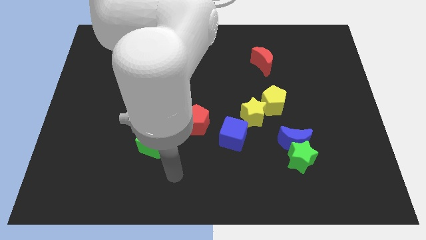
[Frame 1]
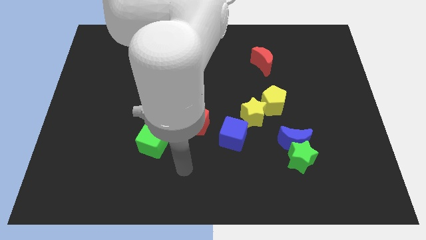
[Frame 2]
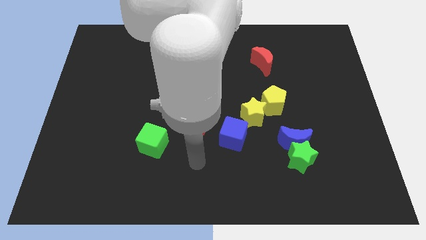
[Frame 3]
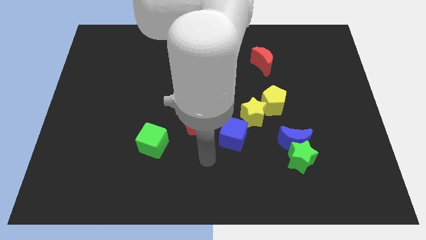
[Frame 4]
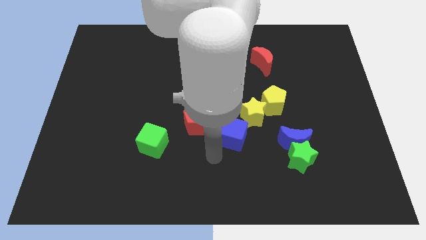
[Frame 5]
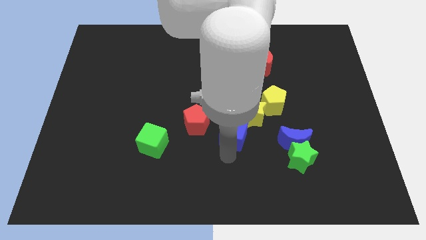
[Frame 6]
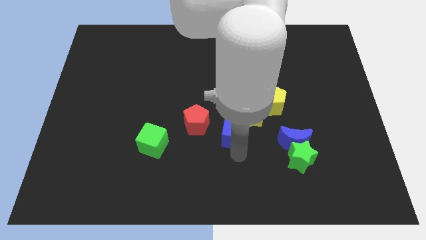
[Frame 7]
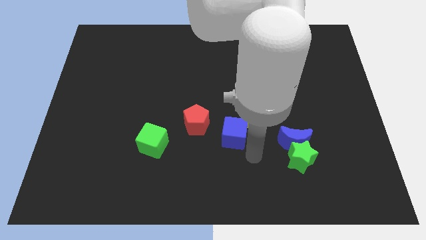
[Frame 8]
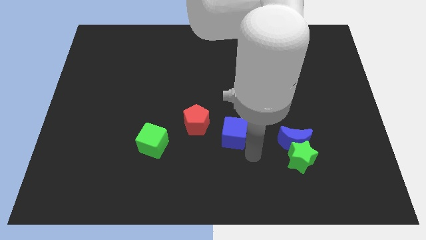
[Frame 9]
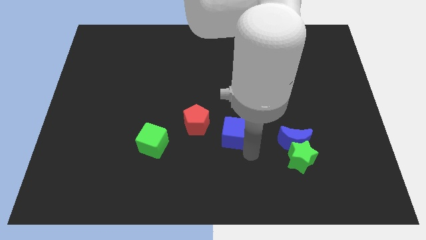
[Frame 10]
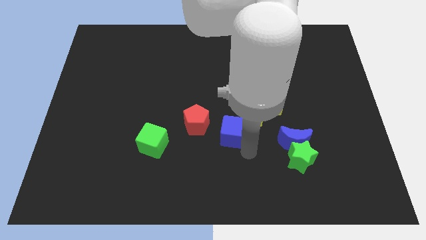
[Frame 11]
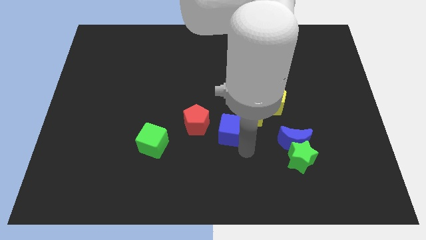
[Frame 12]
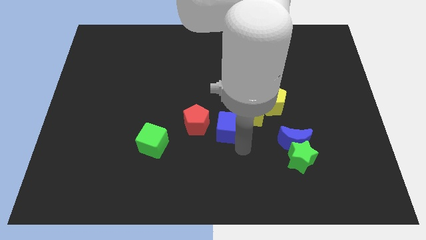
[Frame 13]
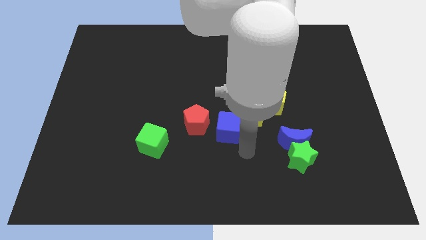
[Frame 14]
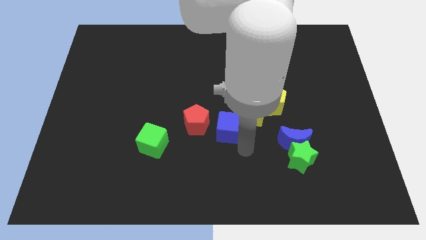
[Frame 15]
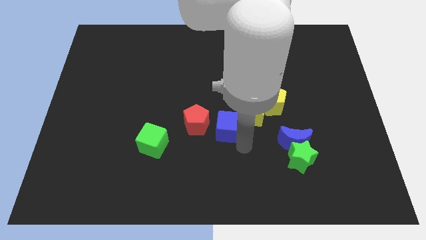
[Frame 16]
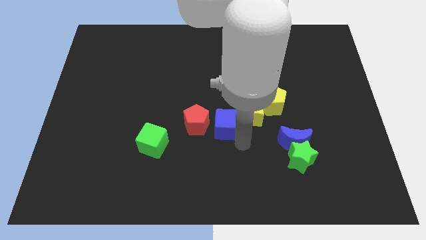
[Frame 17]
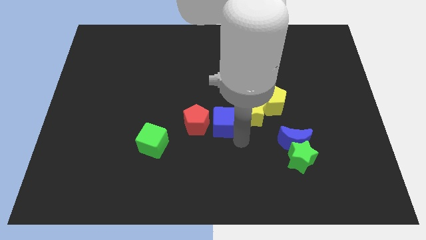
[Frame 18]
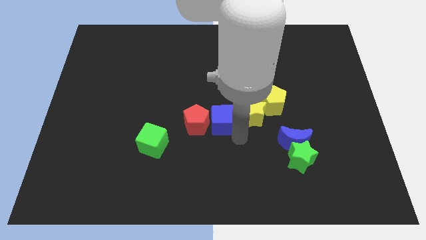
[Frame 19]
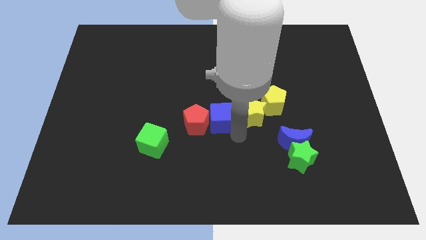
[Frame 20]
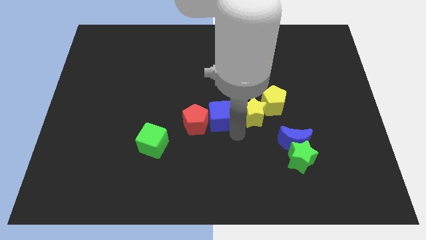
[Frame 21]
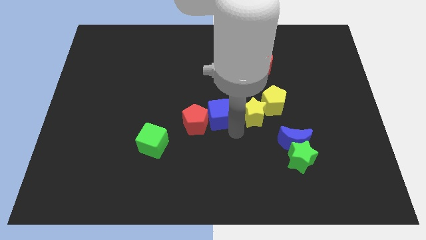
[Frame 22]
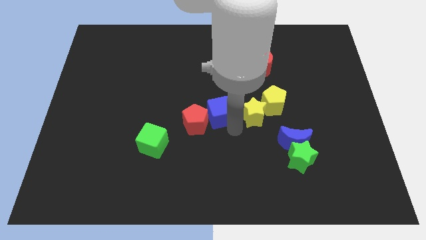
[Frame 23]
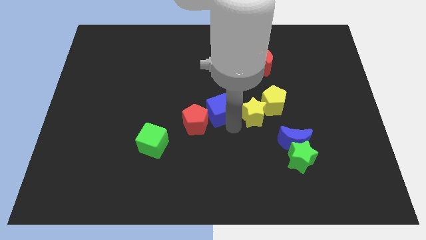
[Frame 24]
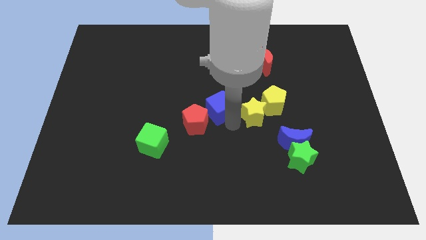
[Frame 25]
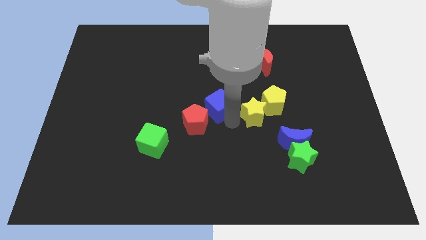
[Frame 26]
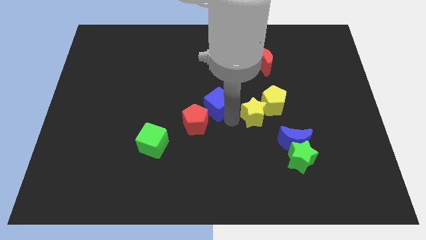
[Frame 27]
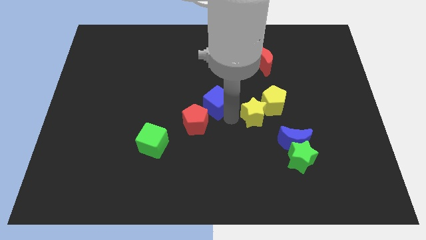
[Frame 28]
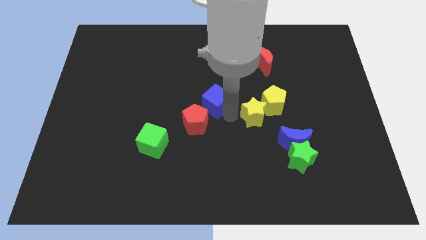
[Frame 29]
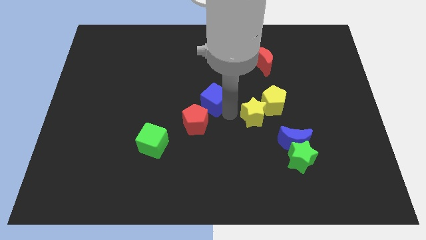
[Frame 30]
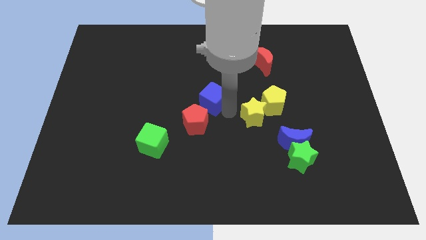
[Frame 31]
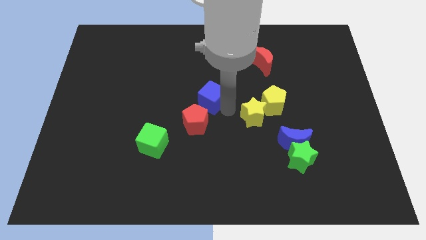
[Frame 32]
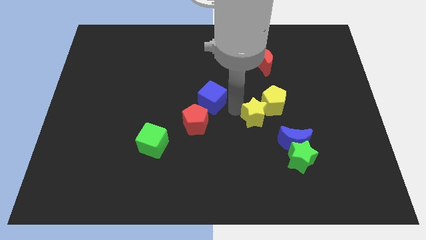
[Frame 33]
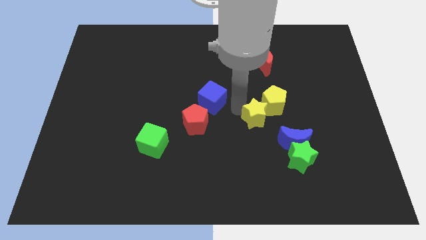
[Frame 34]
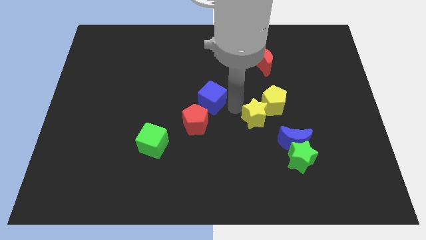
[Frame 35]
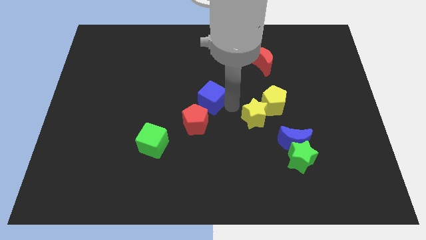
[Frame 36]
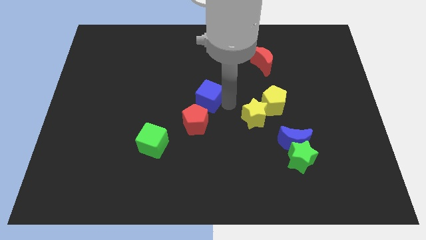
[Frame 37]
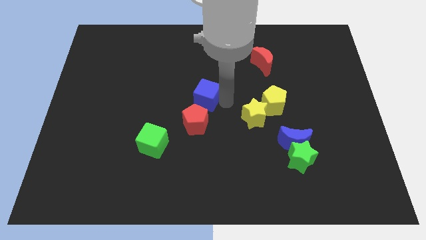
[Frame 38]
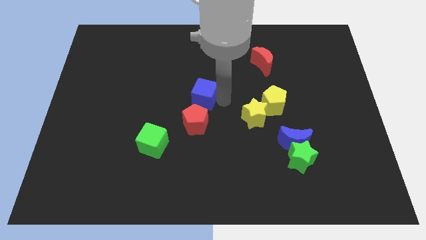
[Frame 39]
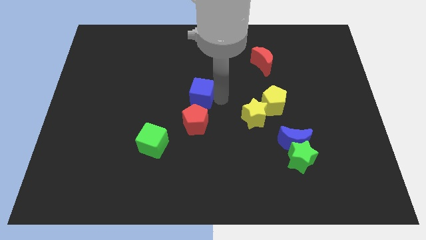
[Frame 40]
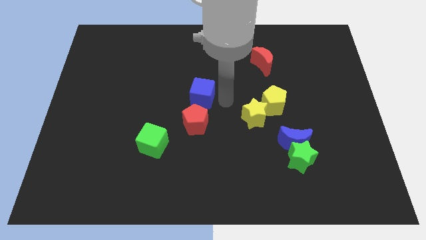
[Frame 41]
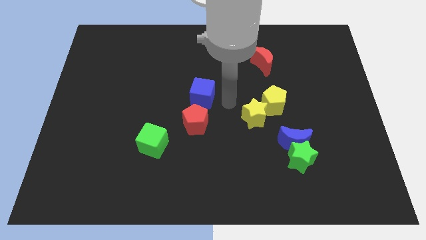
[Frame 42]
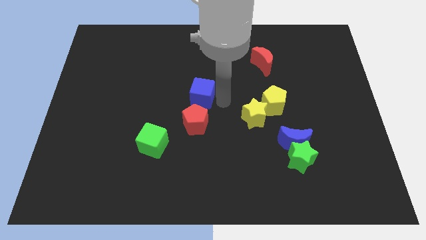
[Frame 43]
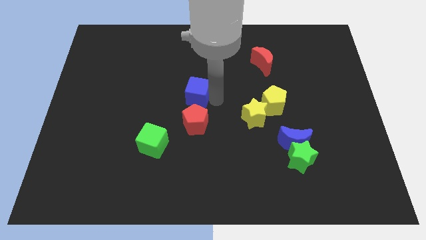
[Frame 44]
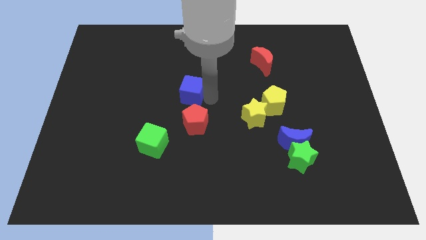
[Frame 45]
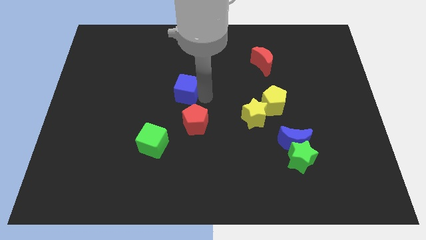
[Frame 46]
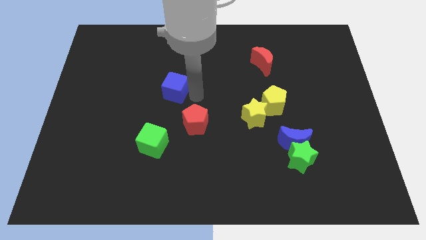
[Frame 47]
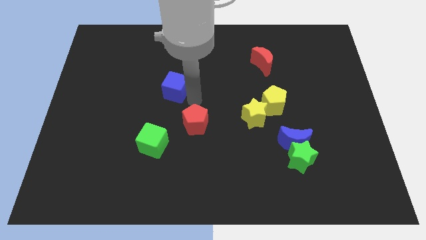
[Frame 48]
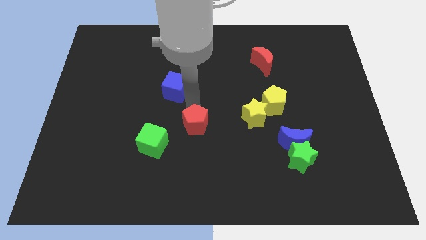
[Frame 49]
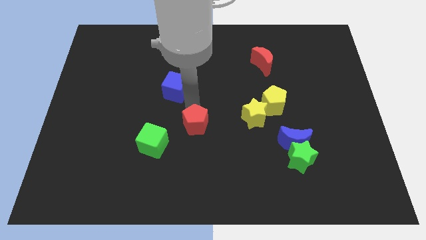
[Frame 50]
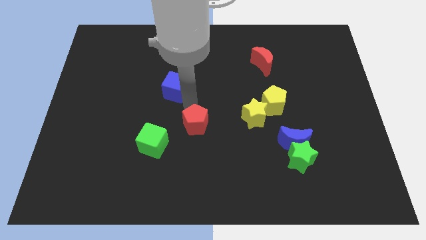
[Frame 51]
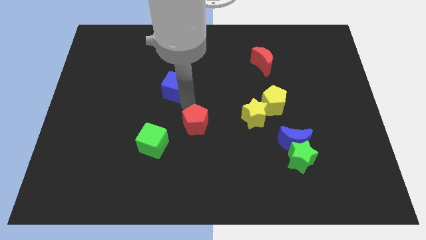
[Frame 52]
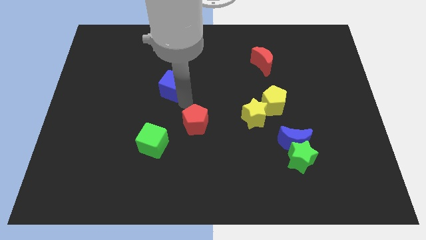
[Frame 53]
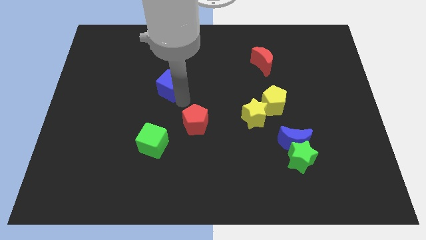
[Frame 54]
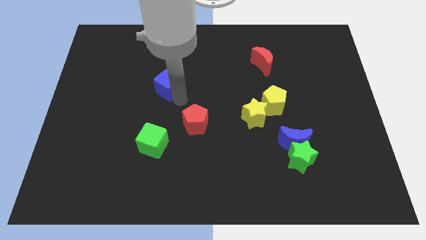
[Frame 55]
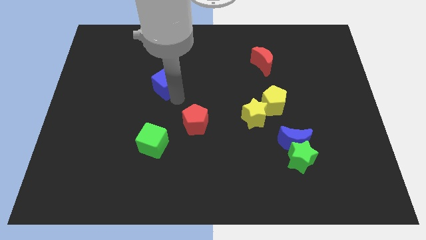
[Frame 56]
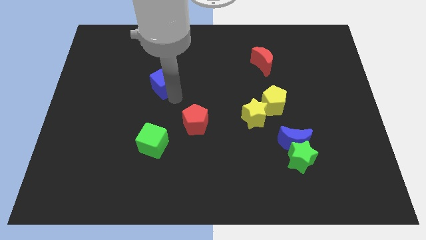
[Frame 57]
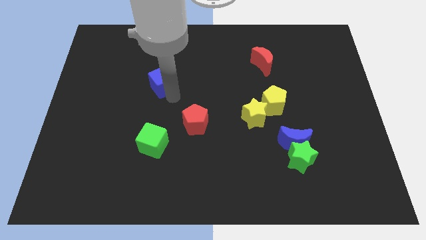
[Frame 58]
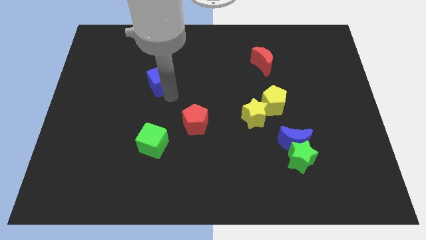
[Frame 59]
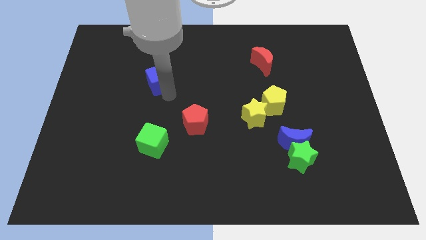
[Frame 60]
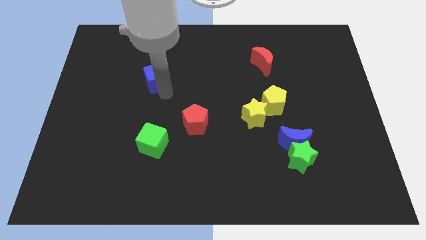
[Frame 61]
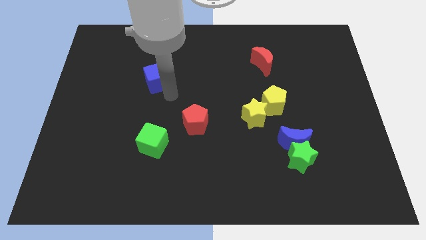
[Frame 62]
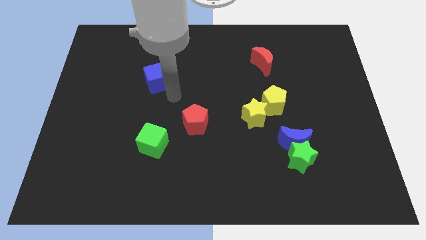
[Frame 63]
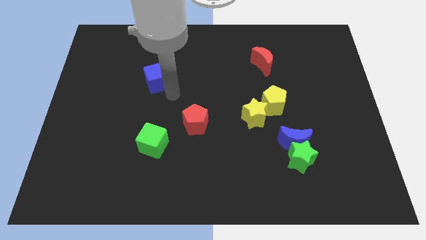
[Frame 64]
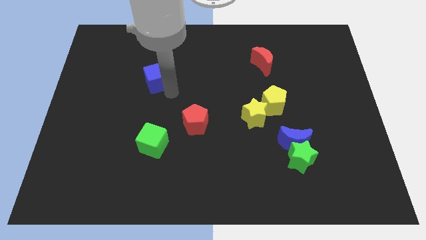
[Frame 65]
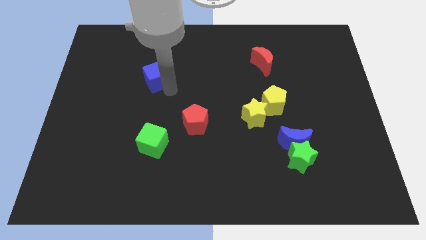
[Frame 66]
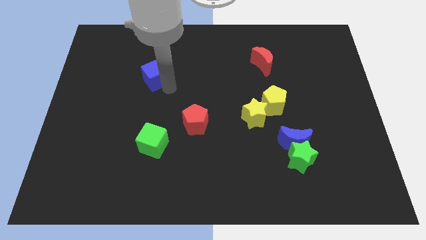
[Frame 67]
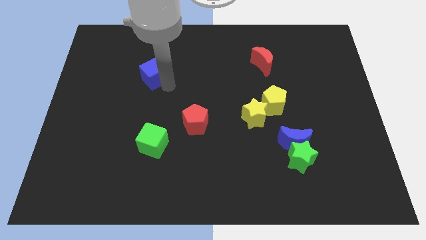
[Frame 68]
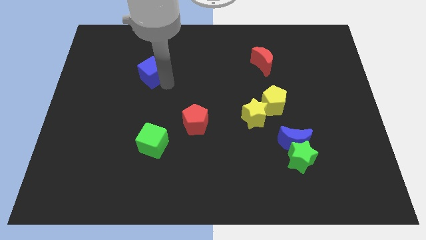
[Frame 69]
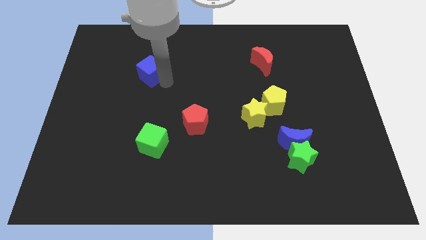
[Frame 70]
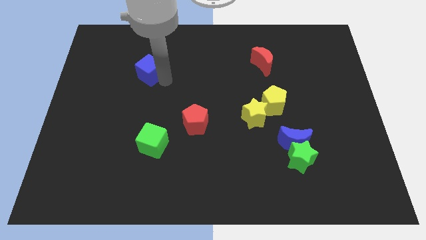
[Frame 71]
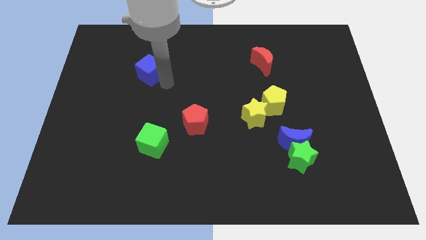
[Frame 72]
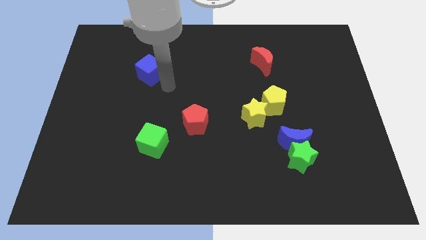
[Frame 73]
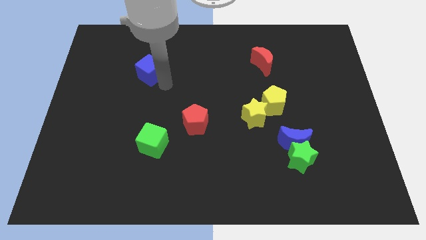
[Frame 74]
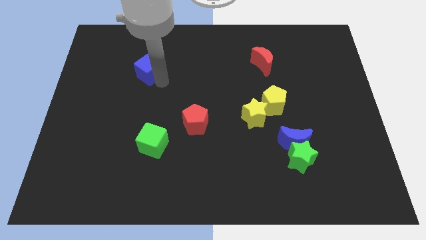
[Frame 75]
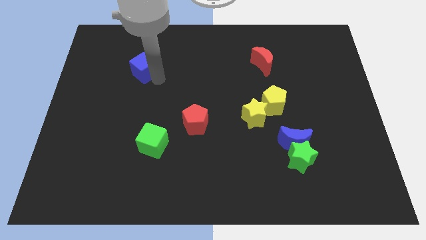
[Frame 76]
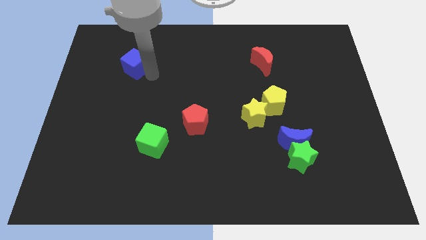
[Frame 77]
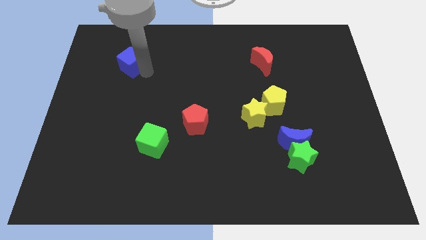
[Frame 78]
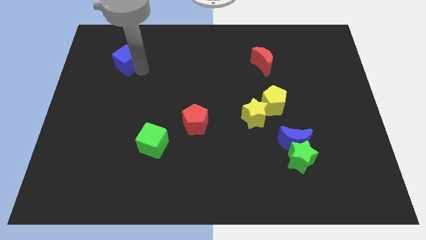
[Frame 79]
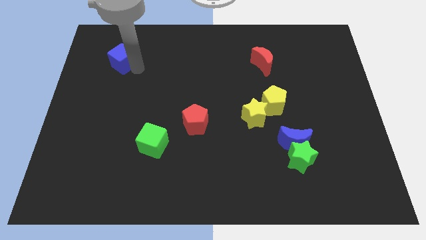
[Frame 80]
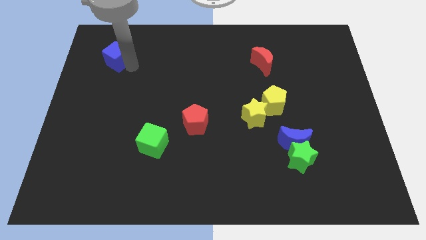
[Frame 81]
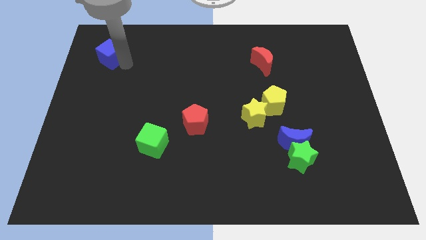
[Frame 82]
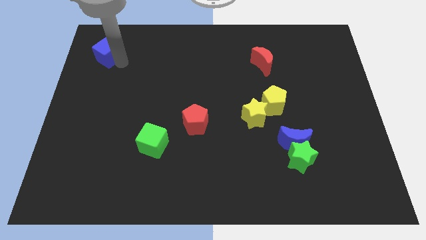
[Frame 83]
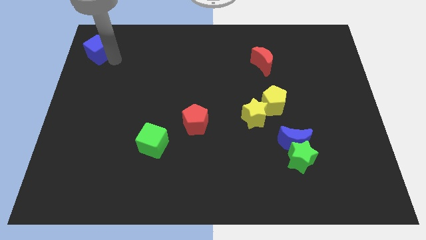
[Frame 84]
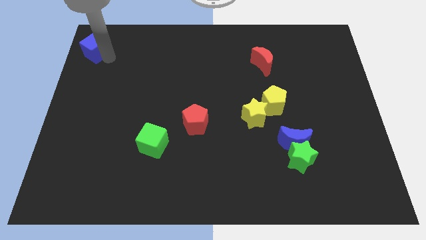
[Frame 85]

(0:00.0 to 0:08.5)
move the blue cube to the top left
